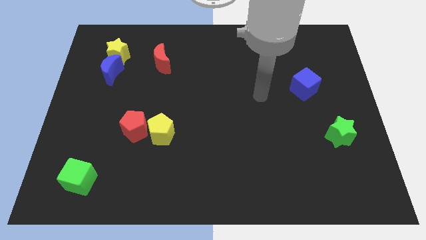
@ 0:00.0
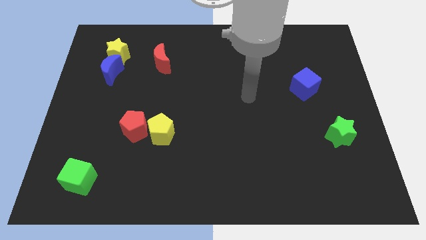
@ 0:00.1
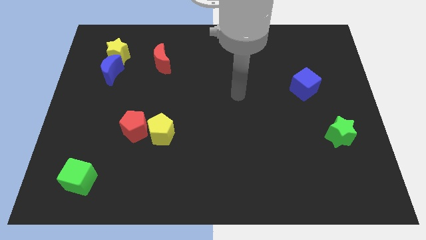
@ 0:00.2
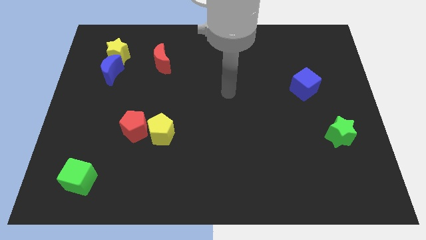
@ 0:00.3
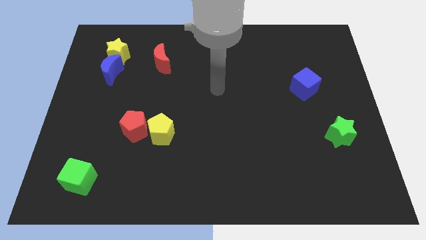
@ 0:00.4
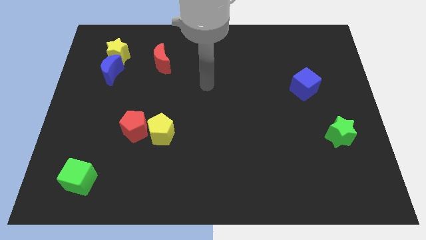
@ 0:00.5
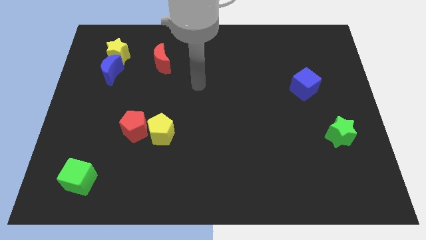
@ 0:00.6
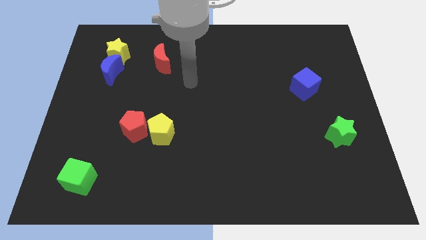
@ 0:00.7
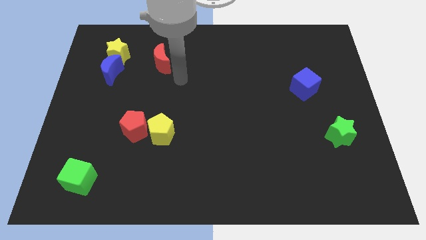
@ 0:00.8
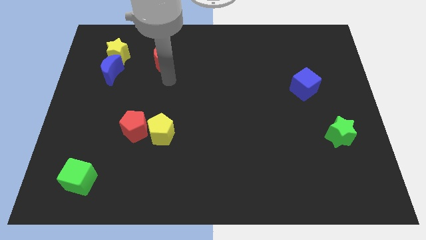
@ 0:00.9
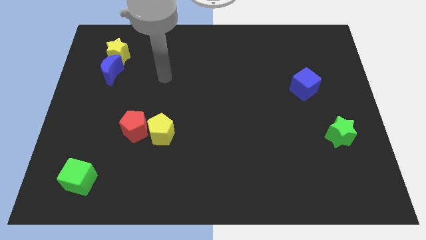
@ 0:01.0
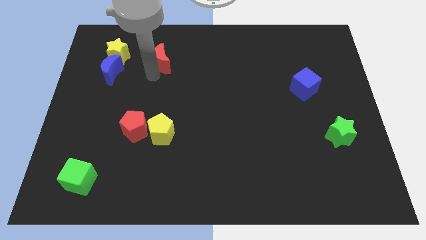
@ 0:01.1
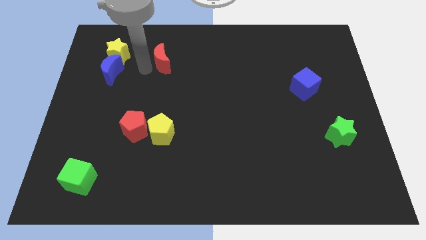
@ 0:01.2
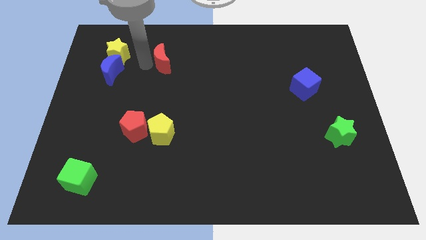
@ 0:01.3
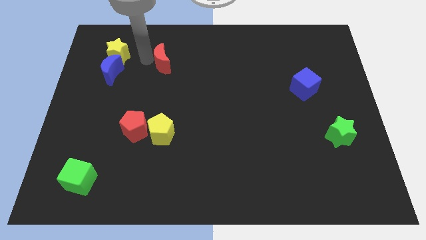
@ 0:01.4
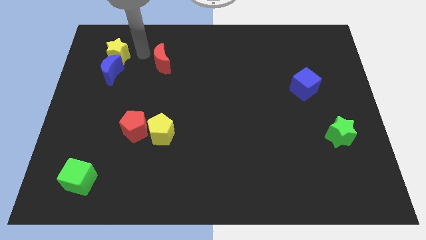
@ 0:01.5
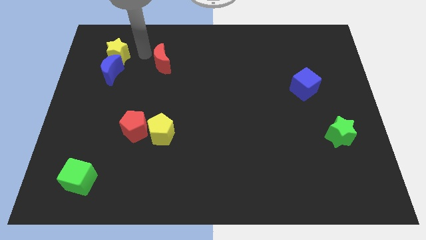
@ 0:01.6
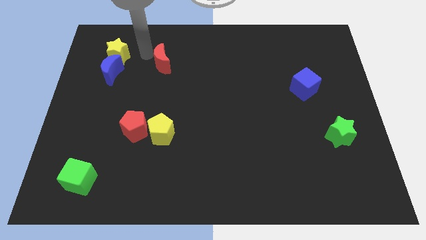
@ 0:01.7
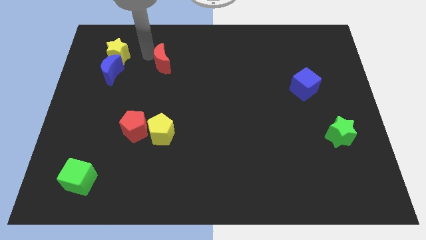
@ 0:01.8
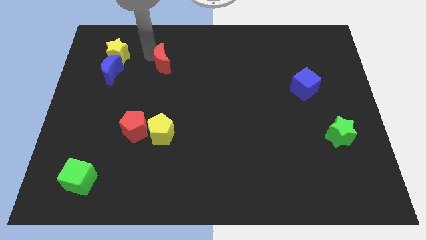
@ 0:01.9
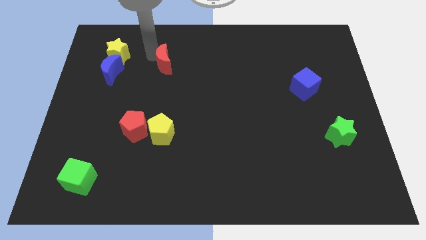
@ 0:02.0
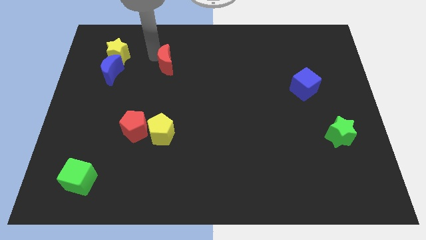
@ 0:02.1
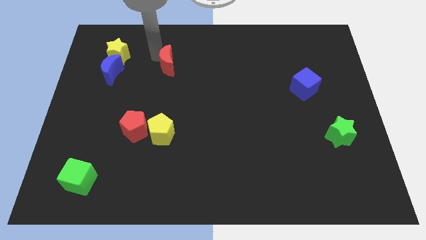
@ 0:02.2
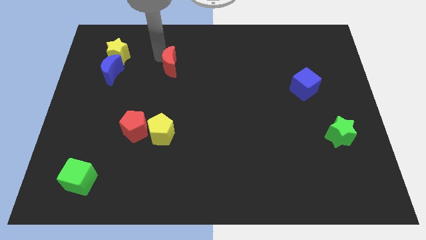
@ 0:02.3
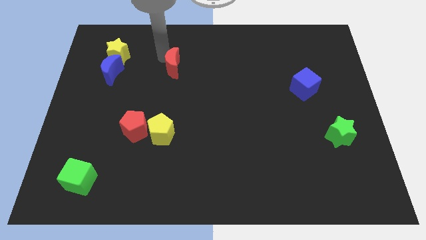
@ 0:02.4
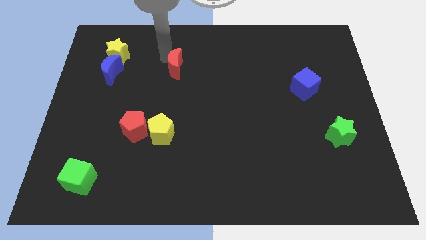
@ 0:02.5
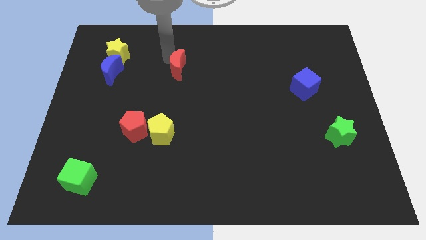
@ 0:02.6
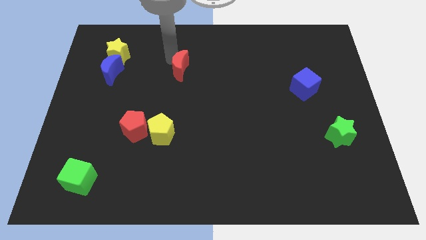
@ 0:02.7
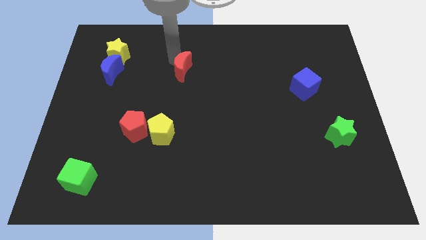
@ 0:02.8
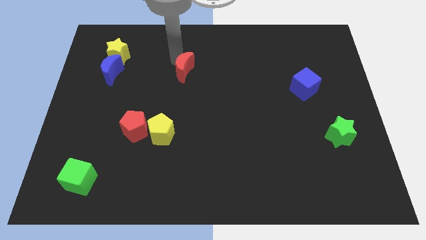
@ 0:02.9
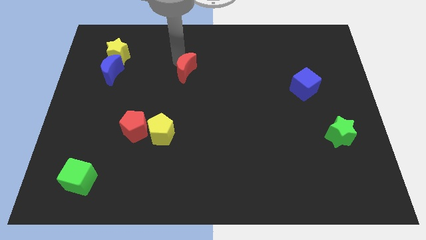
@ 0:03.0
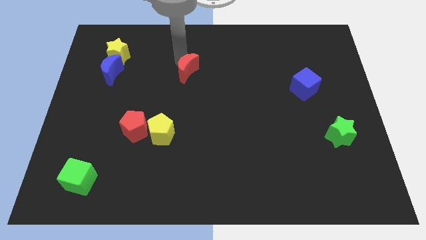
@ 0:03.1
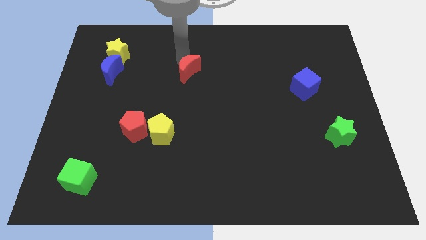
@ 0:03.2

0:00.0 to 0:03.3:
slide the red moon downwards and to the right diagonally somewhat

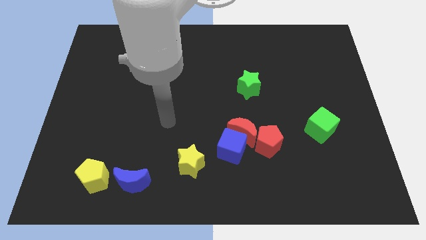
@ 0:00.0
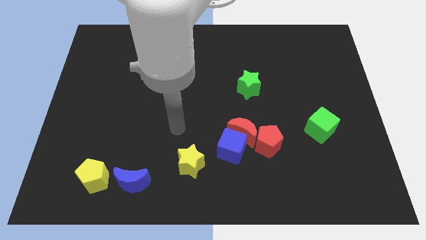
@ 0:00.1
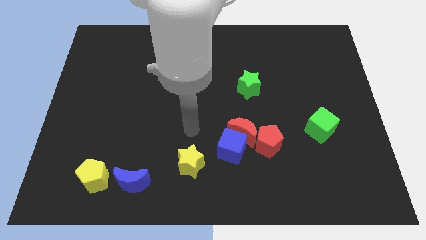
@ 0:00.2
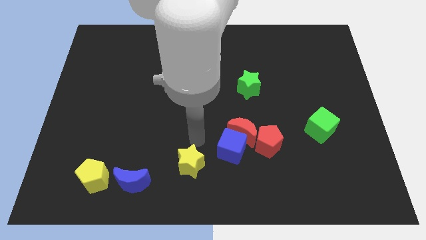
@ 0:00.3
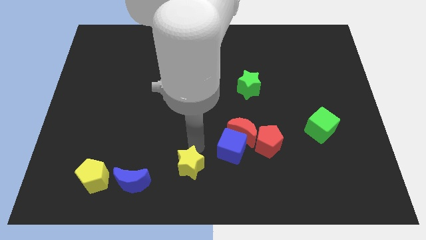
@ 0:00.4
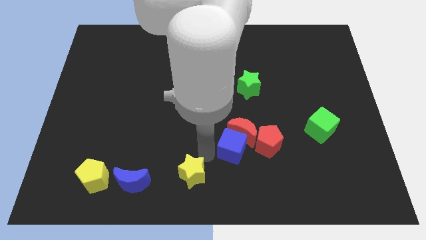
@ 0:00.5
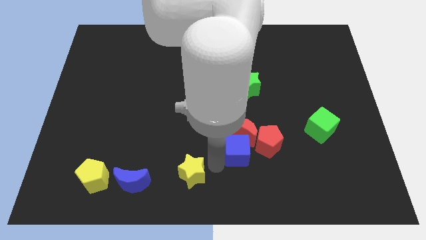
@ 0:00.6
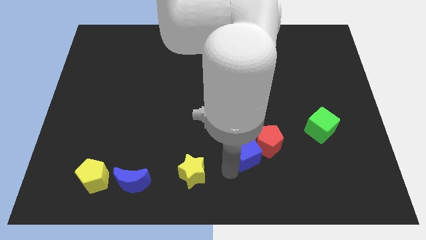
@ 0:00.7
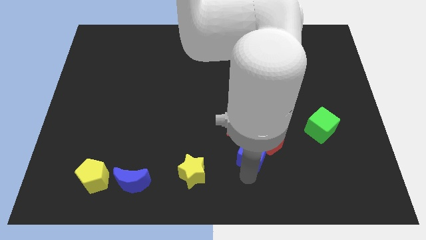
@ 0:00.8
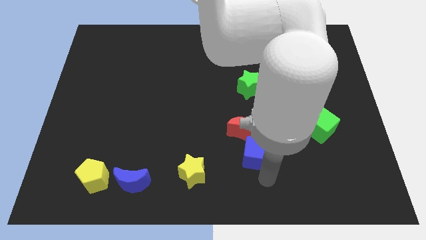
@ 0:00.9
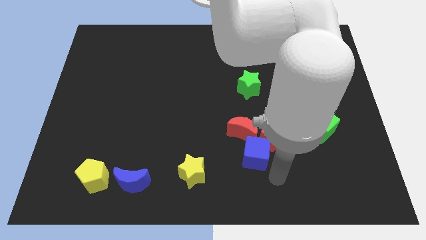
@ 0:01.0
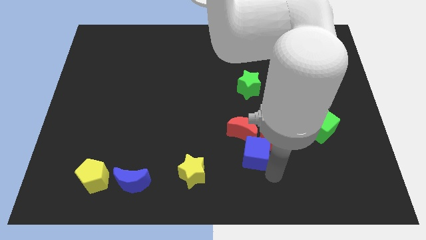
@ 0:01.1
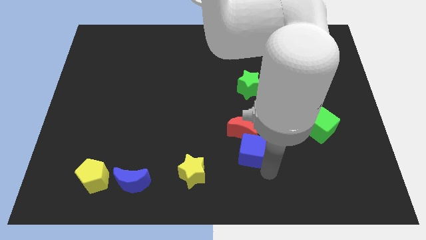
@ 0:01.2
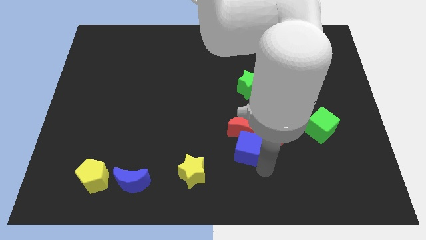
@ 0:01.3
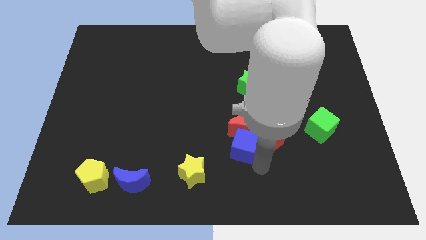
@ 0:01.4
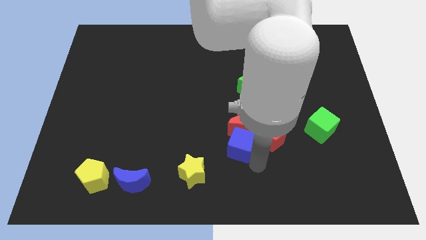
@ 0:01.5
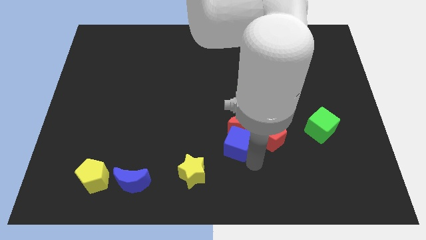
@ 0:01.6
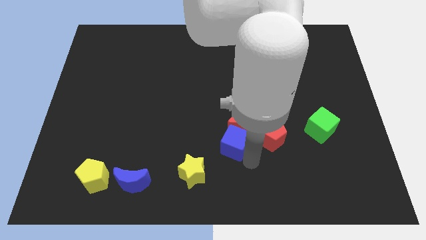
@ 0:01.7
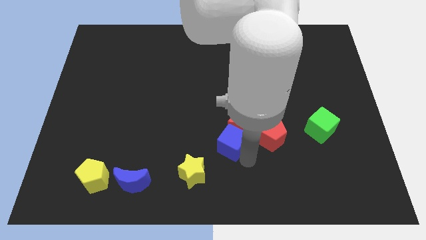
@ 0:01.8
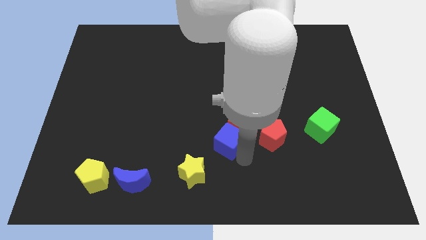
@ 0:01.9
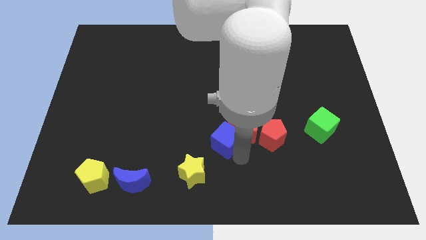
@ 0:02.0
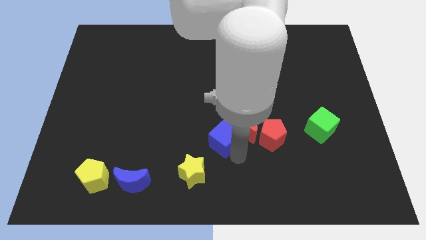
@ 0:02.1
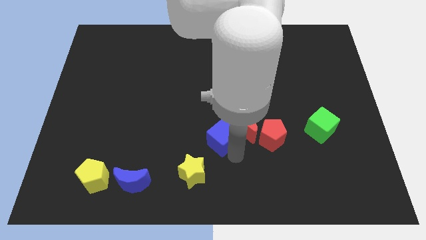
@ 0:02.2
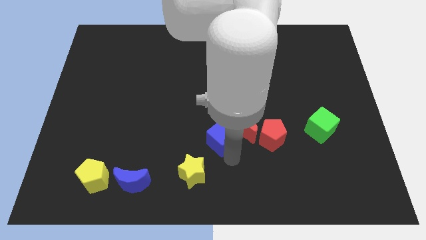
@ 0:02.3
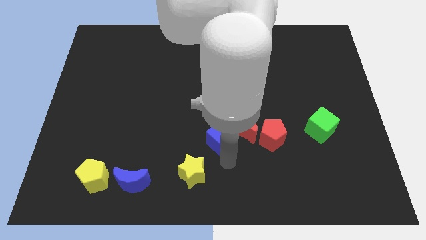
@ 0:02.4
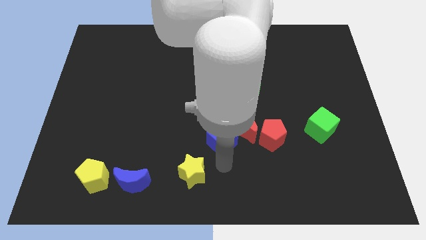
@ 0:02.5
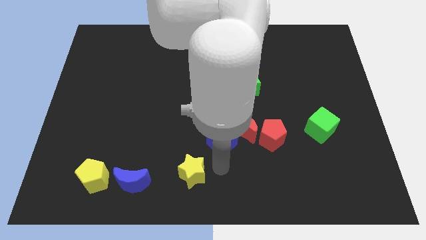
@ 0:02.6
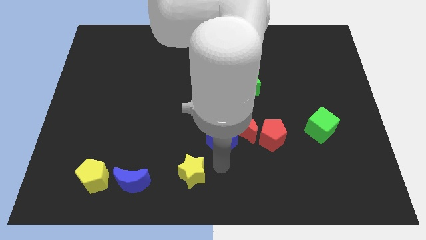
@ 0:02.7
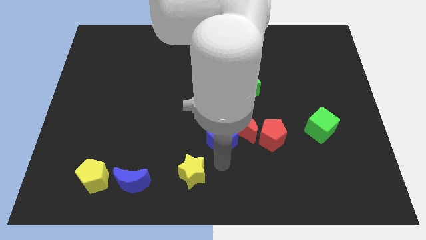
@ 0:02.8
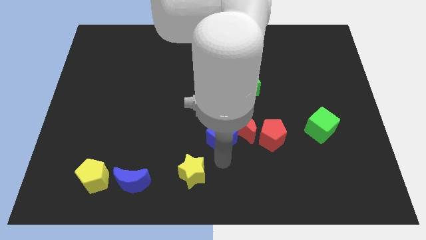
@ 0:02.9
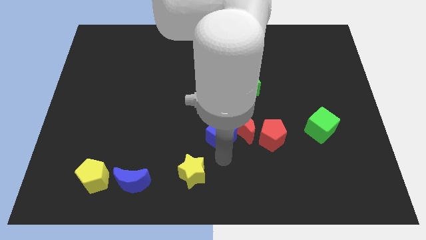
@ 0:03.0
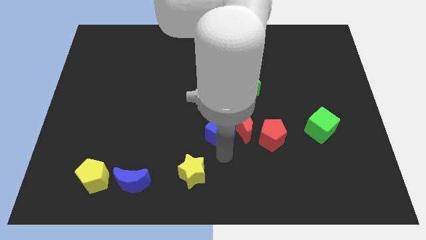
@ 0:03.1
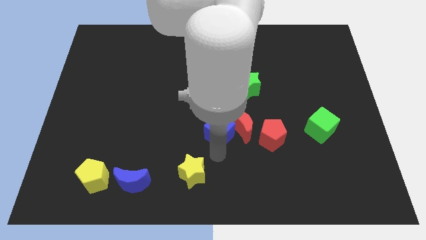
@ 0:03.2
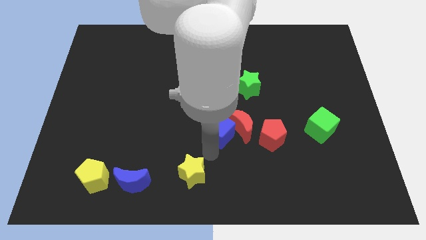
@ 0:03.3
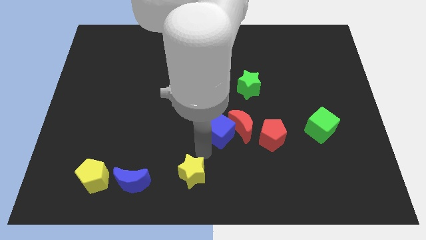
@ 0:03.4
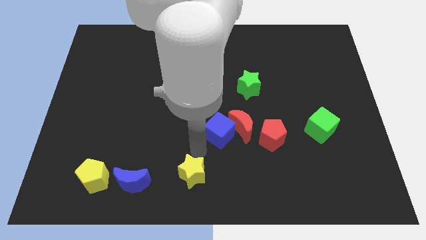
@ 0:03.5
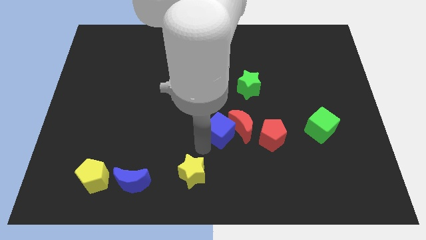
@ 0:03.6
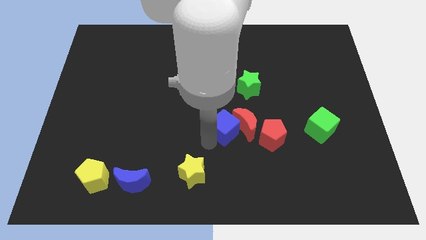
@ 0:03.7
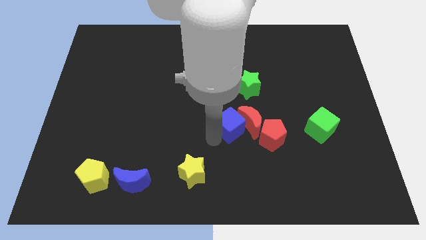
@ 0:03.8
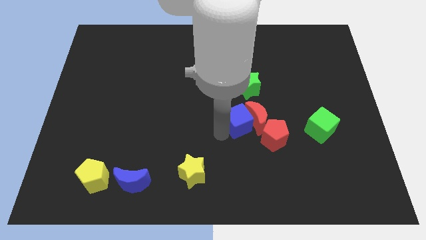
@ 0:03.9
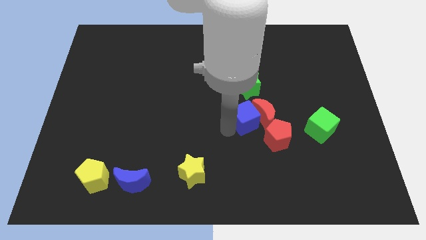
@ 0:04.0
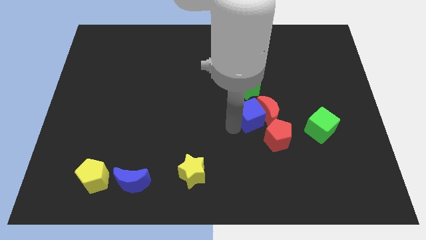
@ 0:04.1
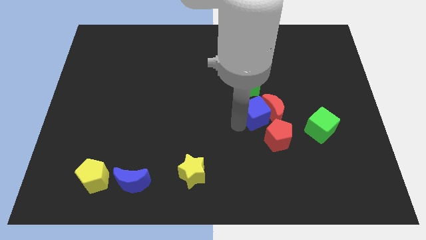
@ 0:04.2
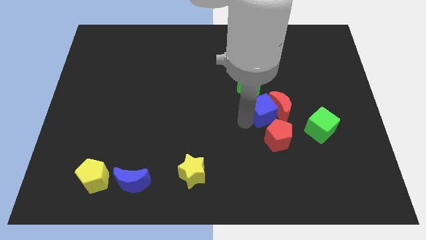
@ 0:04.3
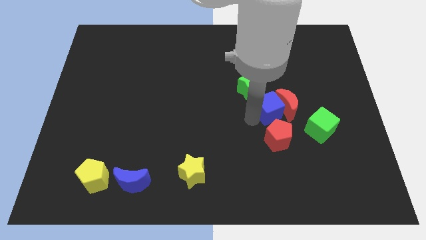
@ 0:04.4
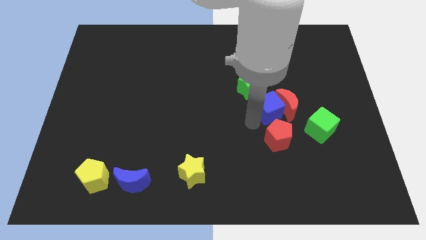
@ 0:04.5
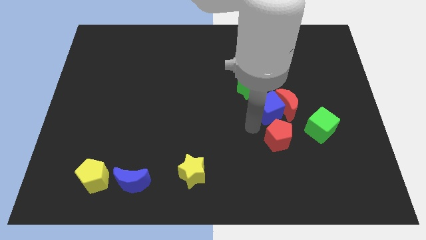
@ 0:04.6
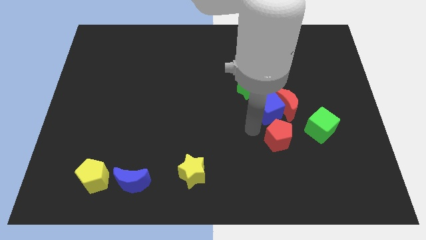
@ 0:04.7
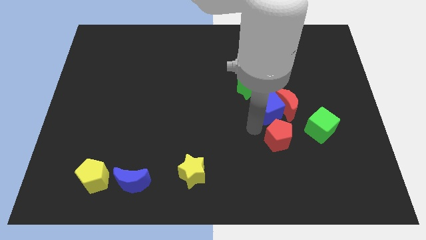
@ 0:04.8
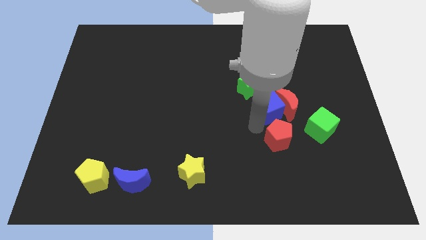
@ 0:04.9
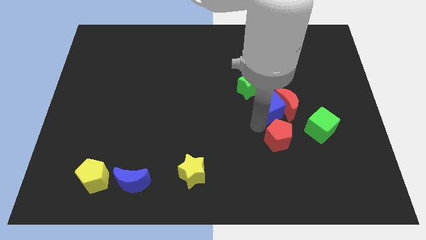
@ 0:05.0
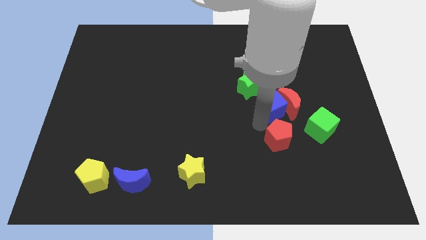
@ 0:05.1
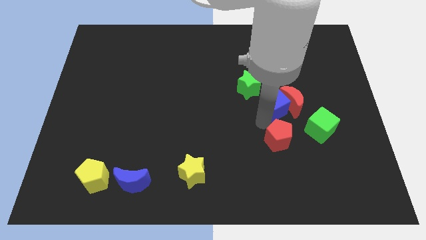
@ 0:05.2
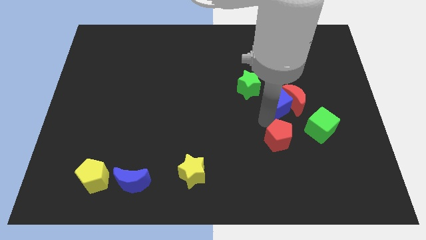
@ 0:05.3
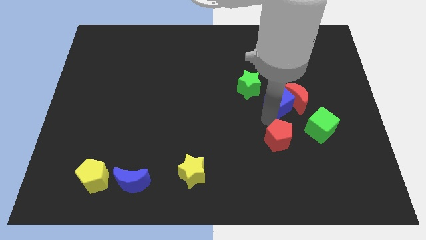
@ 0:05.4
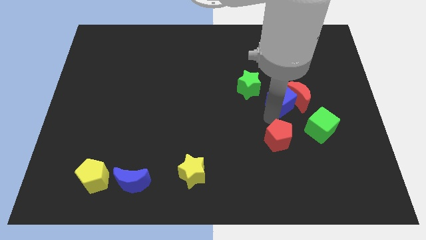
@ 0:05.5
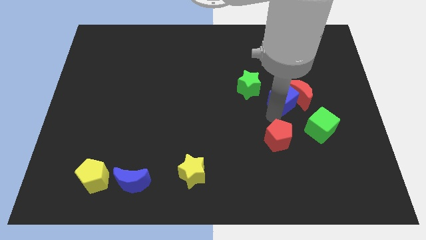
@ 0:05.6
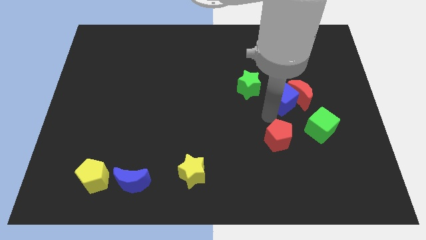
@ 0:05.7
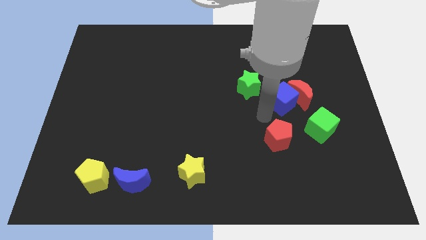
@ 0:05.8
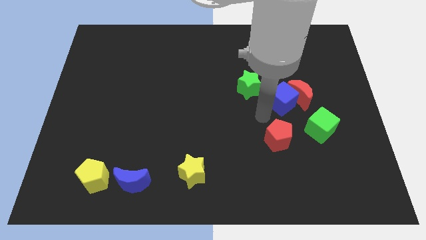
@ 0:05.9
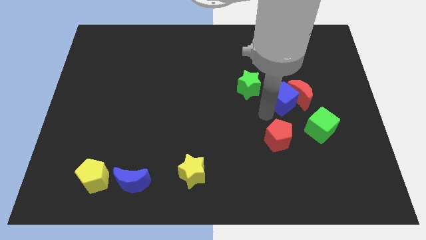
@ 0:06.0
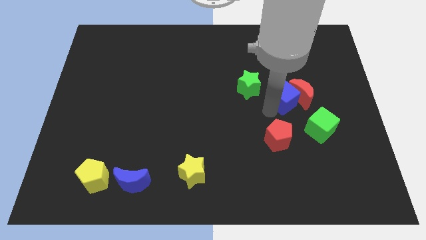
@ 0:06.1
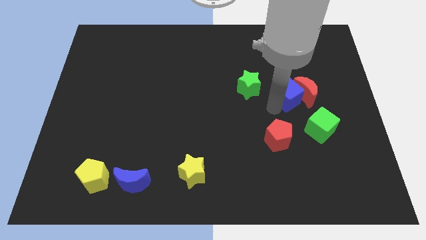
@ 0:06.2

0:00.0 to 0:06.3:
push the blue cube diagonally up and right
